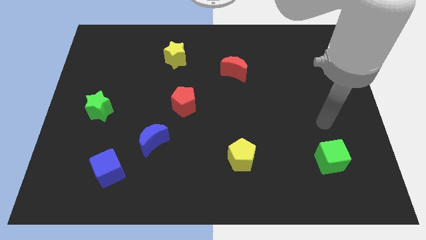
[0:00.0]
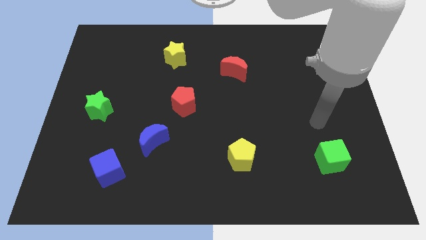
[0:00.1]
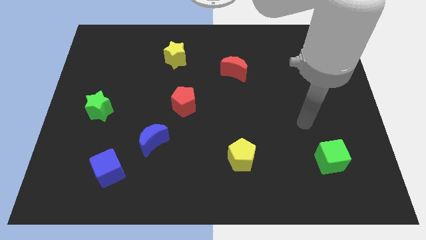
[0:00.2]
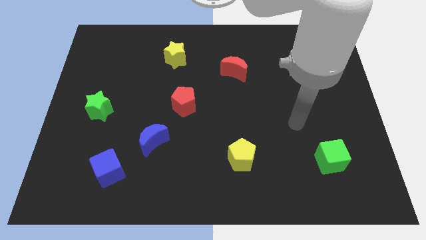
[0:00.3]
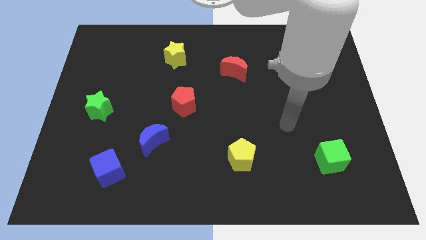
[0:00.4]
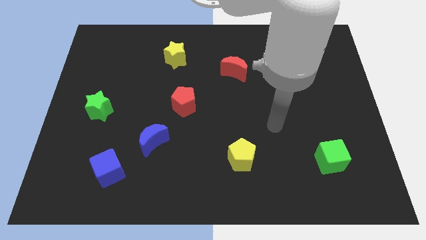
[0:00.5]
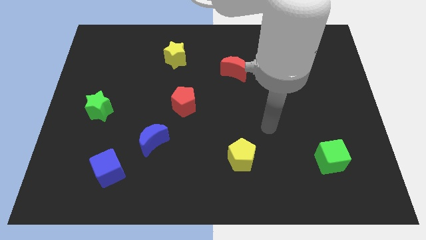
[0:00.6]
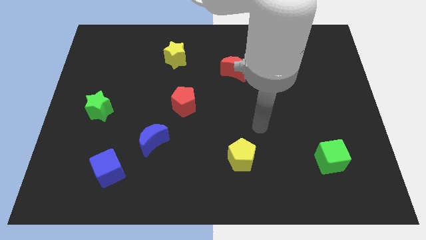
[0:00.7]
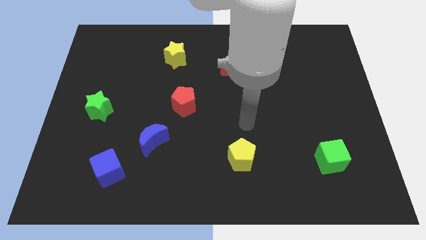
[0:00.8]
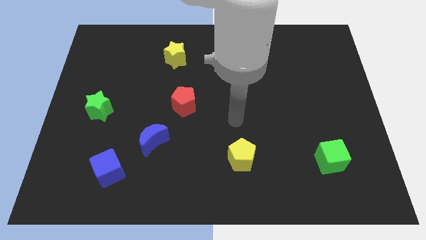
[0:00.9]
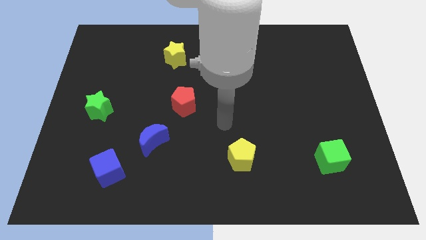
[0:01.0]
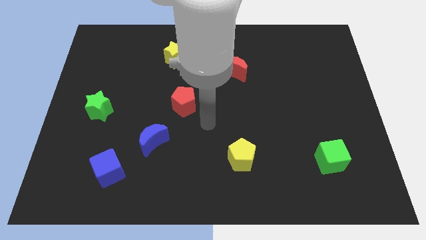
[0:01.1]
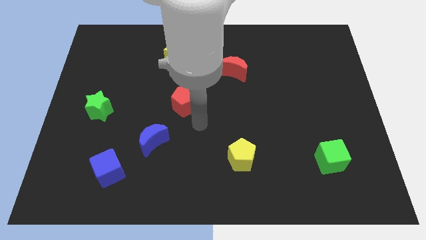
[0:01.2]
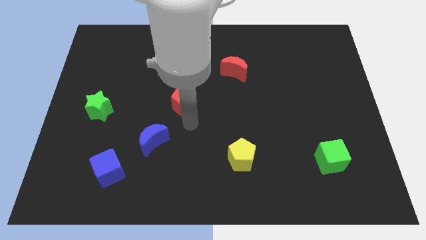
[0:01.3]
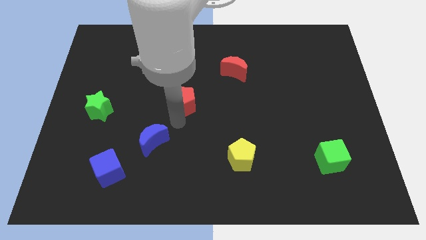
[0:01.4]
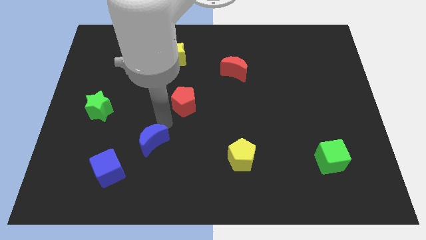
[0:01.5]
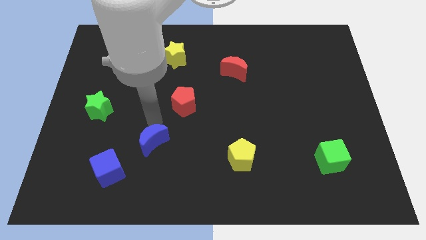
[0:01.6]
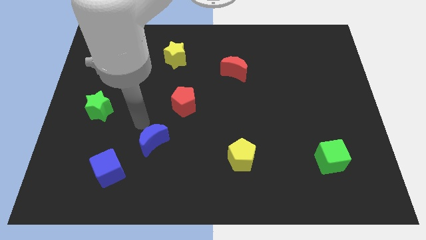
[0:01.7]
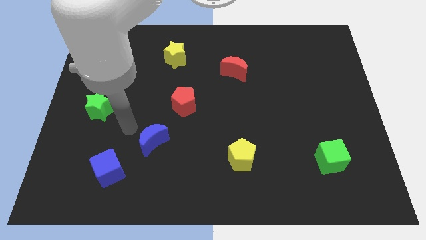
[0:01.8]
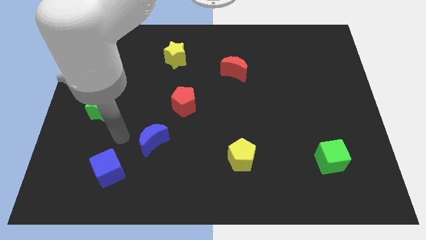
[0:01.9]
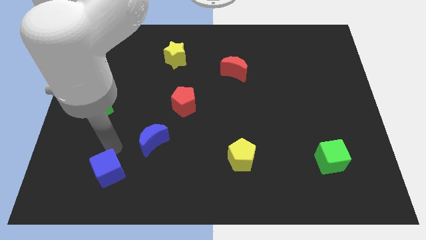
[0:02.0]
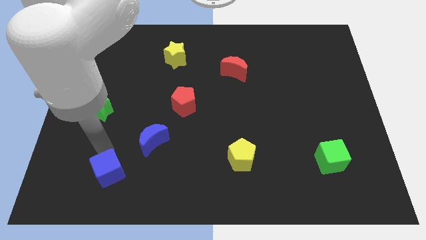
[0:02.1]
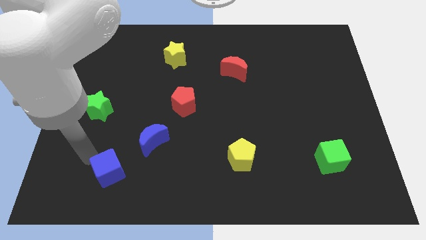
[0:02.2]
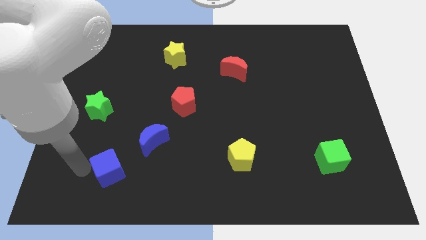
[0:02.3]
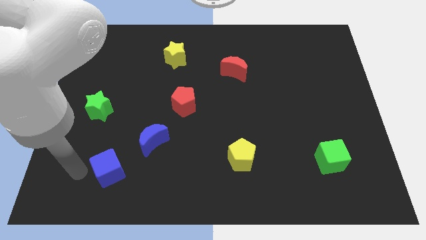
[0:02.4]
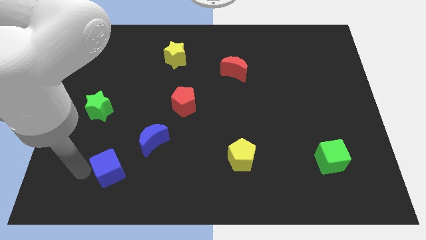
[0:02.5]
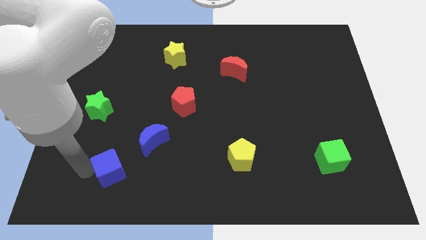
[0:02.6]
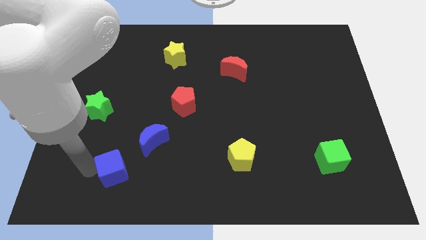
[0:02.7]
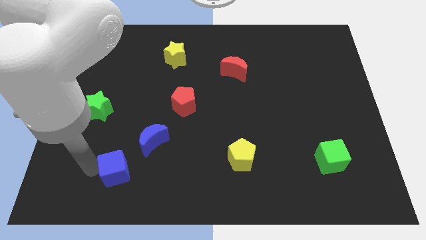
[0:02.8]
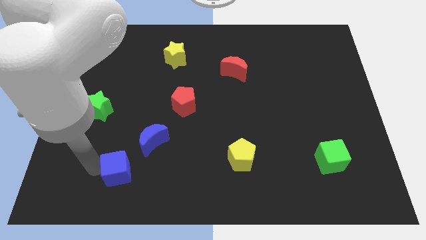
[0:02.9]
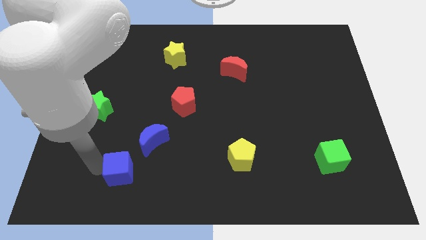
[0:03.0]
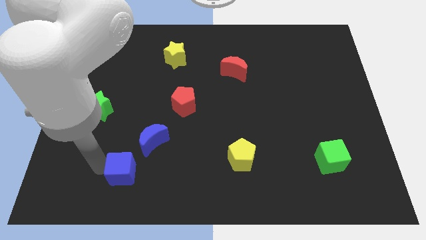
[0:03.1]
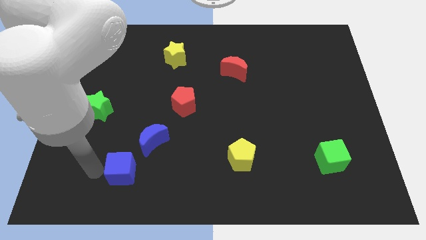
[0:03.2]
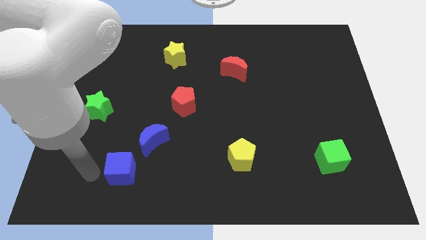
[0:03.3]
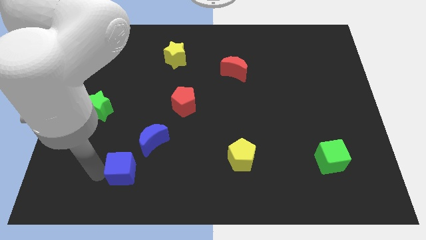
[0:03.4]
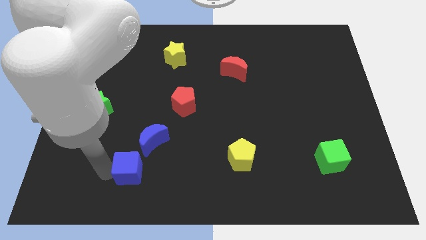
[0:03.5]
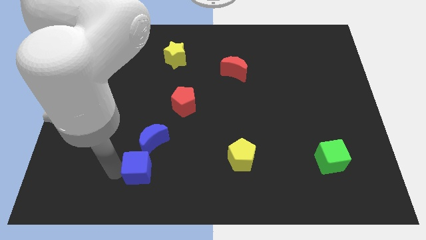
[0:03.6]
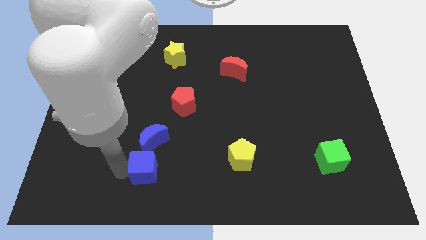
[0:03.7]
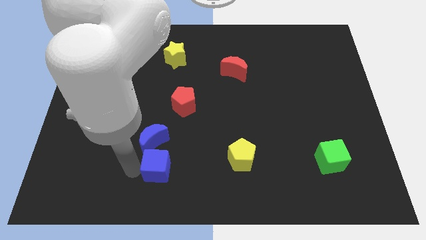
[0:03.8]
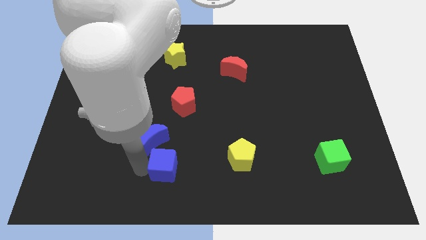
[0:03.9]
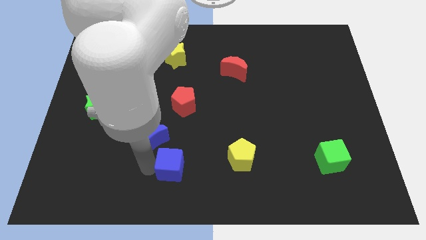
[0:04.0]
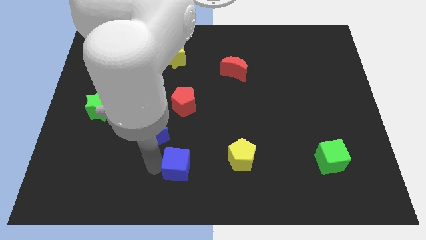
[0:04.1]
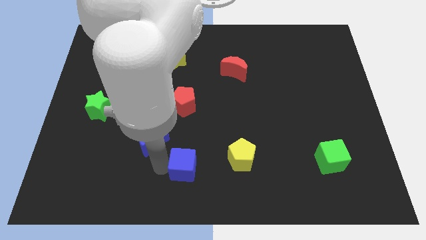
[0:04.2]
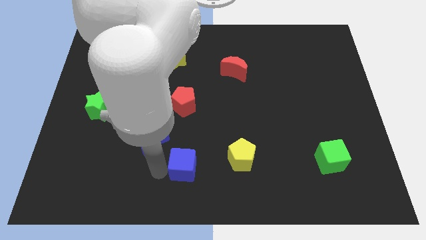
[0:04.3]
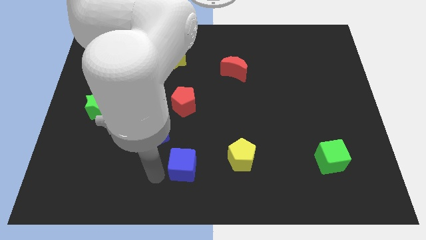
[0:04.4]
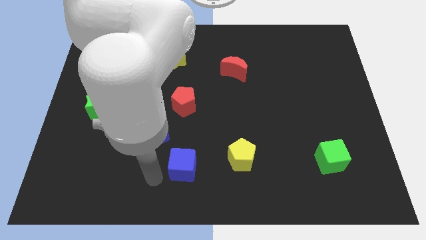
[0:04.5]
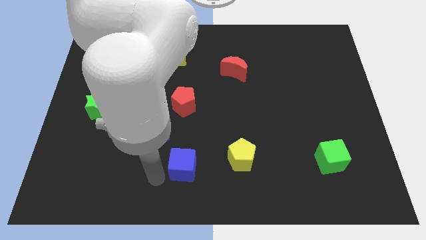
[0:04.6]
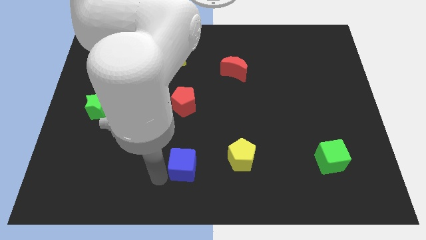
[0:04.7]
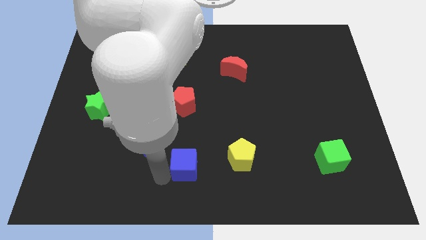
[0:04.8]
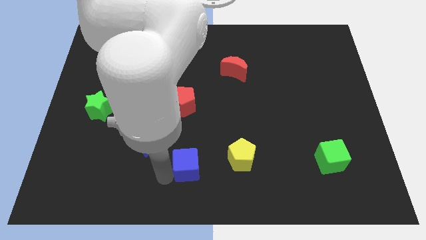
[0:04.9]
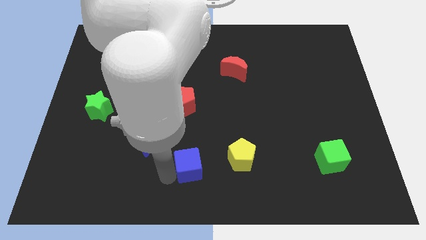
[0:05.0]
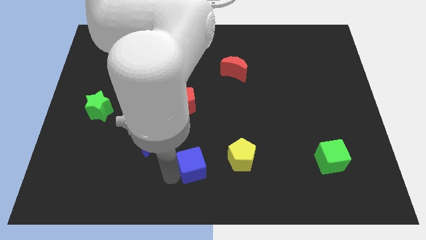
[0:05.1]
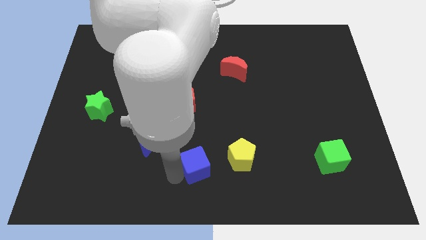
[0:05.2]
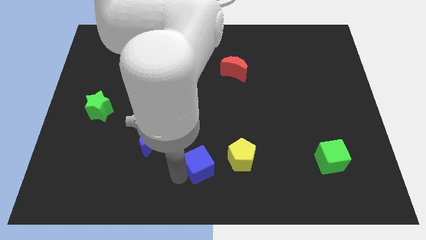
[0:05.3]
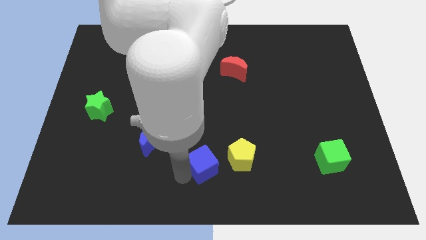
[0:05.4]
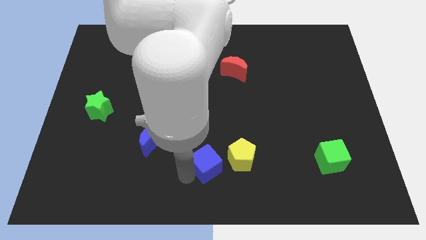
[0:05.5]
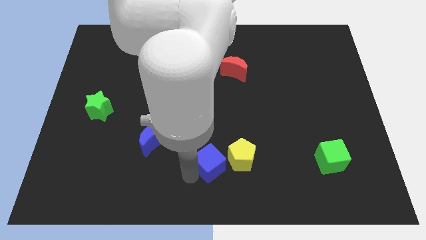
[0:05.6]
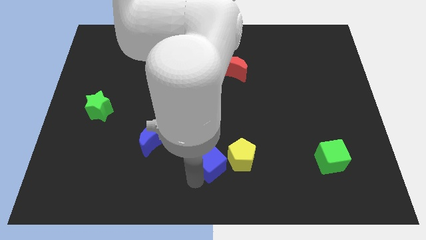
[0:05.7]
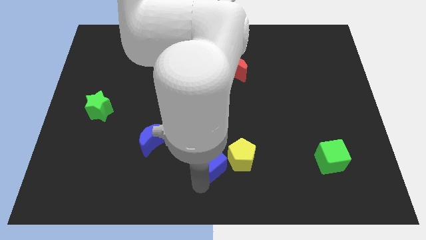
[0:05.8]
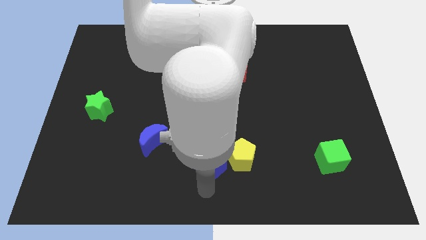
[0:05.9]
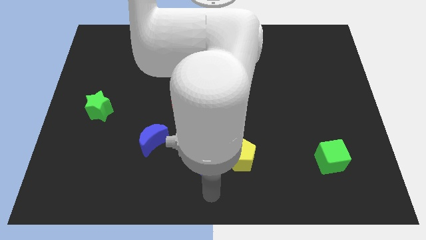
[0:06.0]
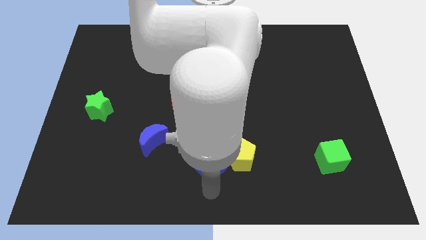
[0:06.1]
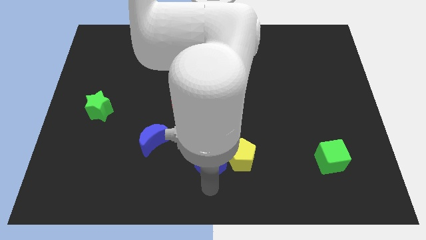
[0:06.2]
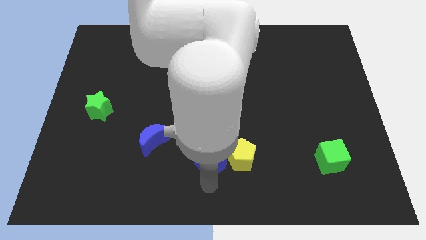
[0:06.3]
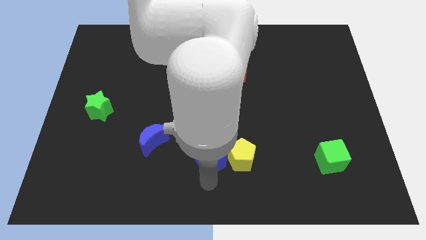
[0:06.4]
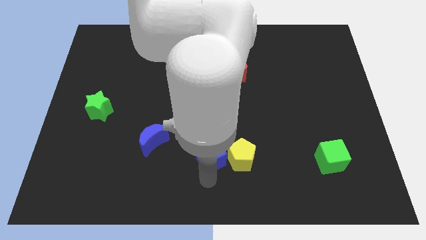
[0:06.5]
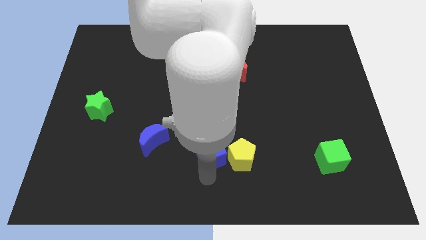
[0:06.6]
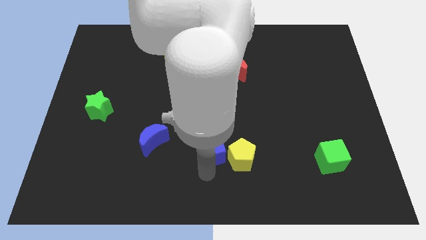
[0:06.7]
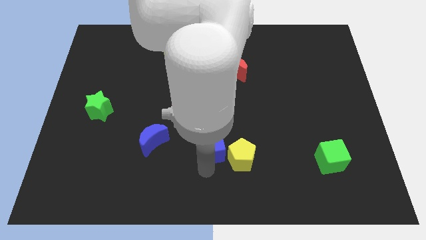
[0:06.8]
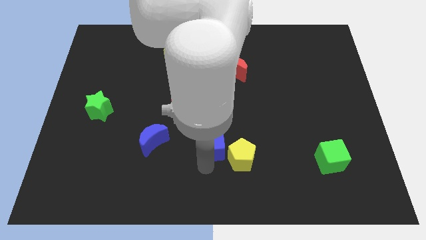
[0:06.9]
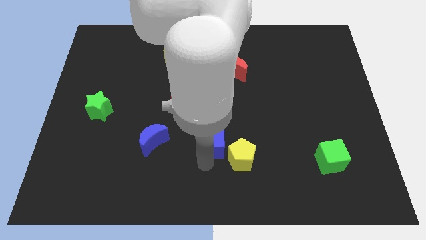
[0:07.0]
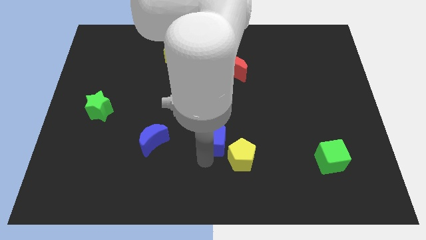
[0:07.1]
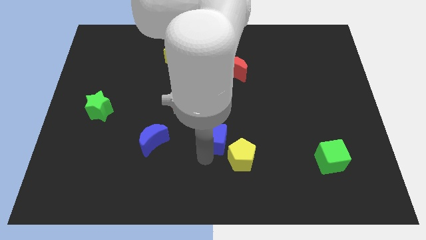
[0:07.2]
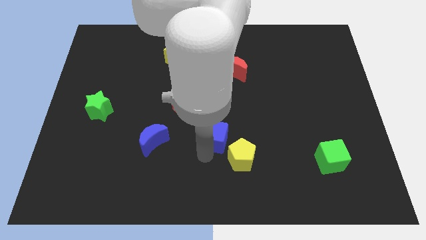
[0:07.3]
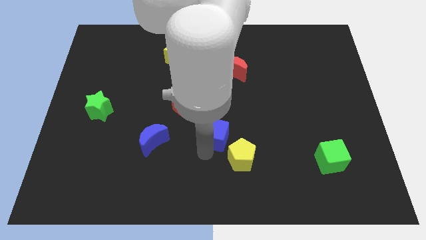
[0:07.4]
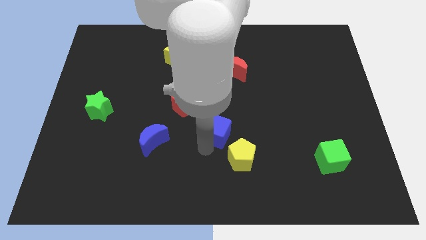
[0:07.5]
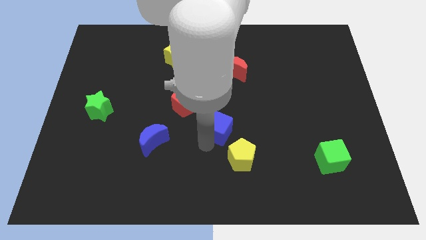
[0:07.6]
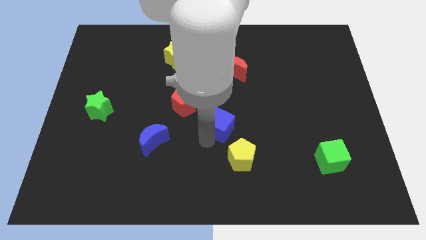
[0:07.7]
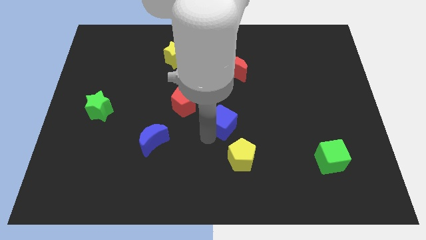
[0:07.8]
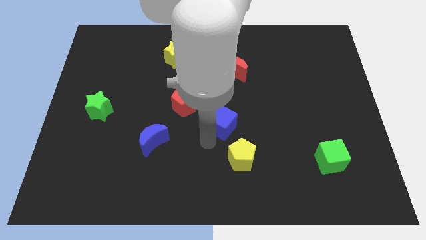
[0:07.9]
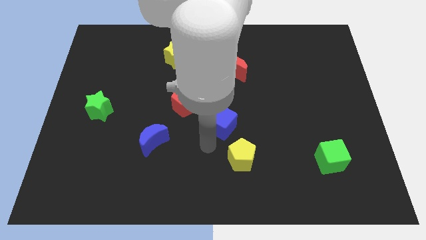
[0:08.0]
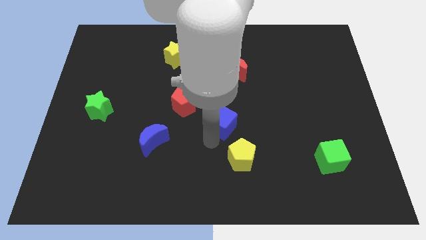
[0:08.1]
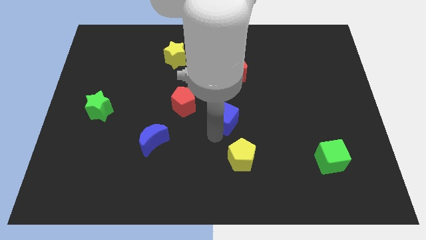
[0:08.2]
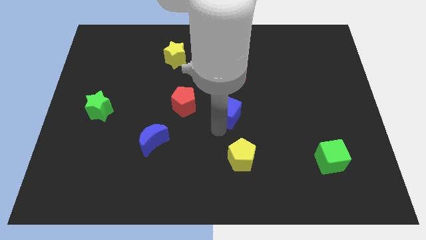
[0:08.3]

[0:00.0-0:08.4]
push the blue cube below the red moon
